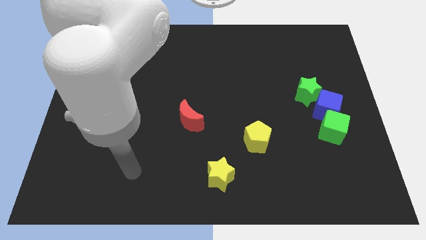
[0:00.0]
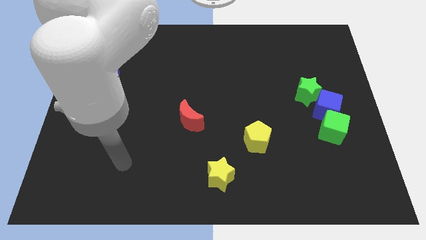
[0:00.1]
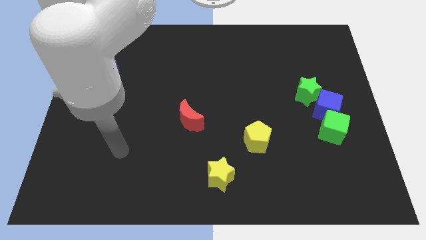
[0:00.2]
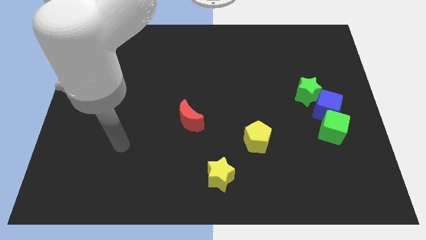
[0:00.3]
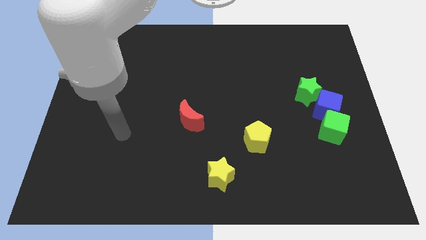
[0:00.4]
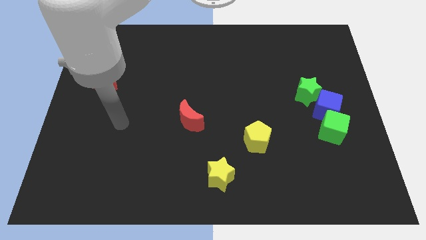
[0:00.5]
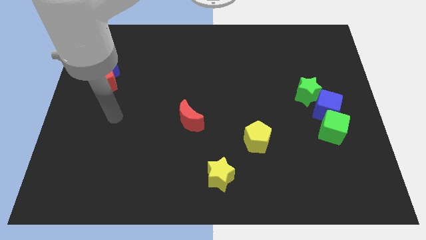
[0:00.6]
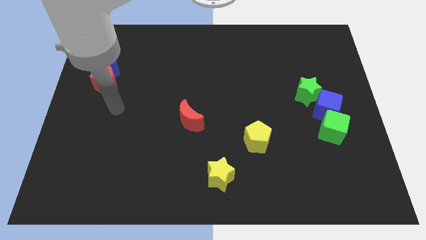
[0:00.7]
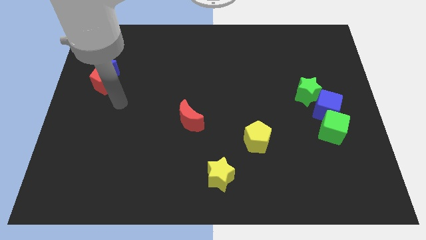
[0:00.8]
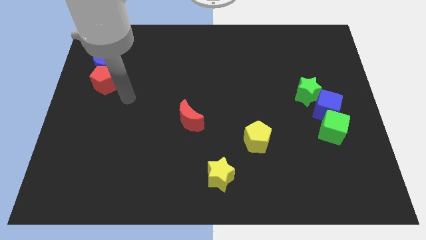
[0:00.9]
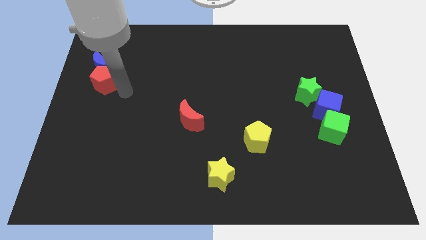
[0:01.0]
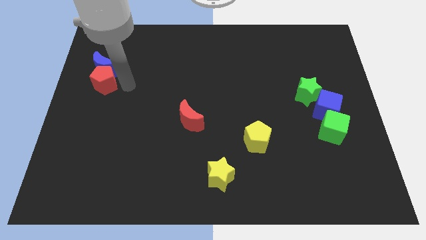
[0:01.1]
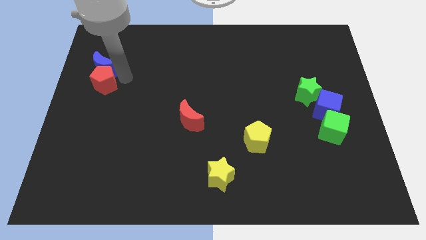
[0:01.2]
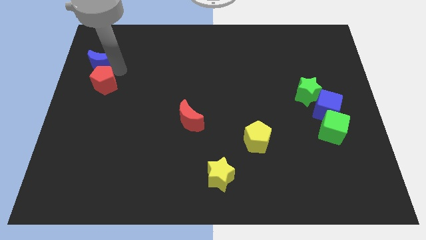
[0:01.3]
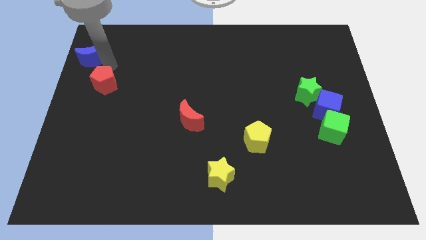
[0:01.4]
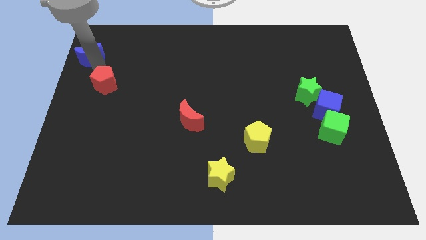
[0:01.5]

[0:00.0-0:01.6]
separate the red pentagon from the blue moon

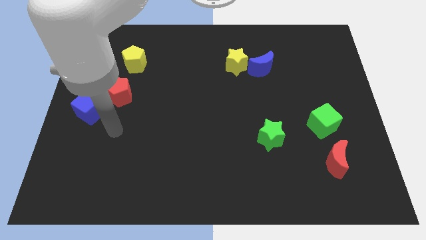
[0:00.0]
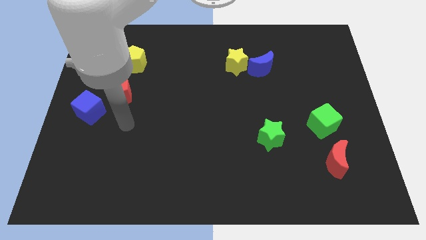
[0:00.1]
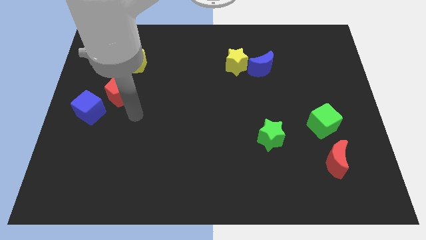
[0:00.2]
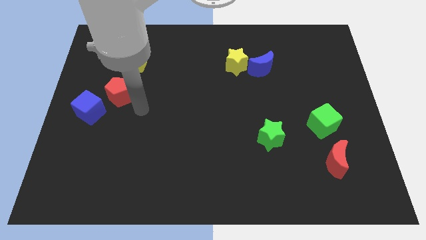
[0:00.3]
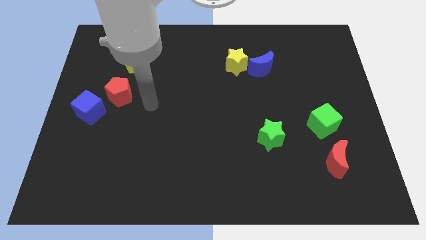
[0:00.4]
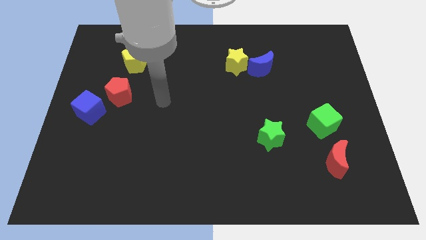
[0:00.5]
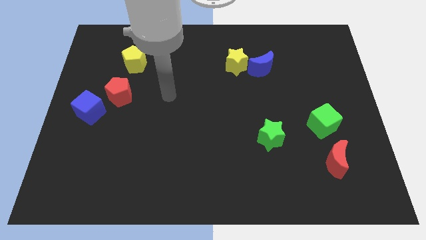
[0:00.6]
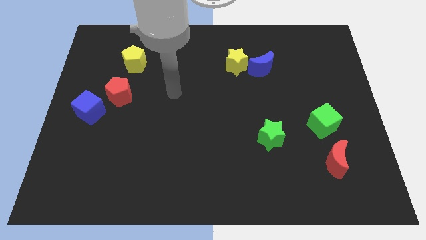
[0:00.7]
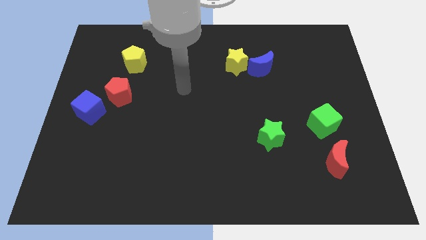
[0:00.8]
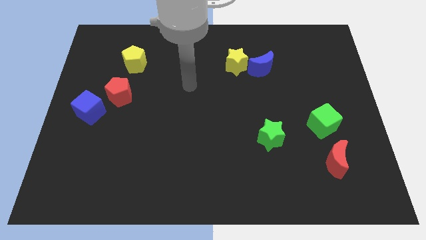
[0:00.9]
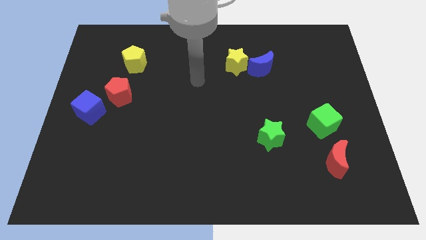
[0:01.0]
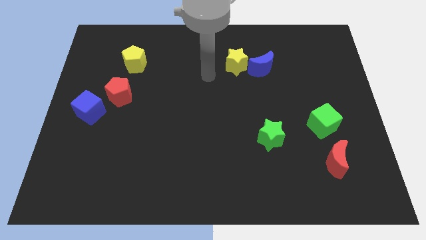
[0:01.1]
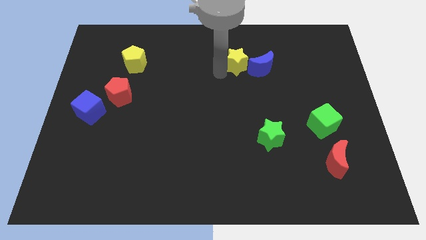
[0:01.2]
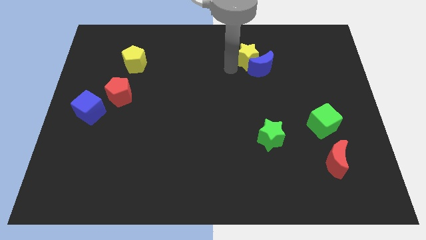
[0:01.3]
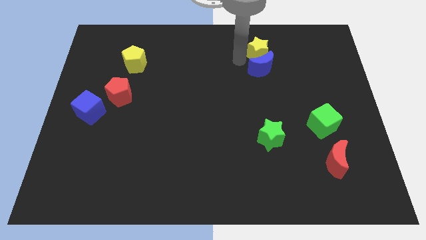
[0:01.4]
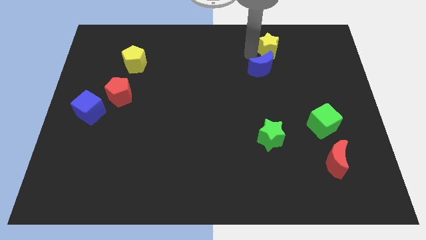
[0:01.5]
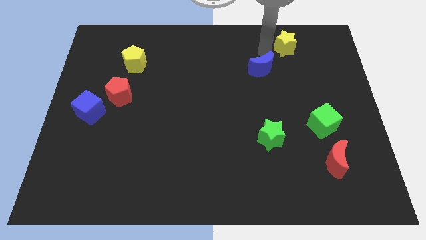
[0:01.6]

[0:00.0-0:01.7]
separate the blue moon from the yellow star

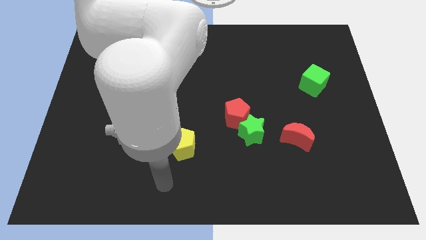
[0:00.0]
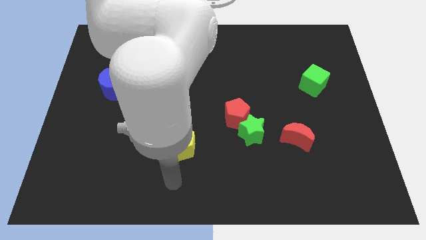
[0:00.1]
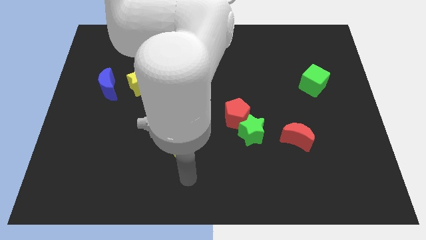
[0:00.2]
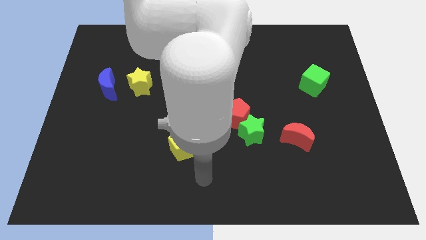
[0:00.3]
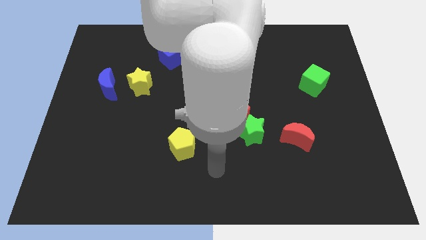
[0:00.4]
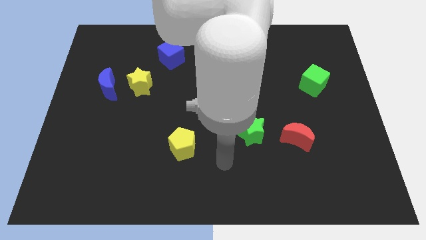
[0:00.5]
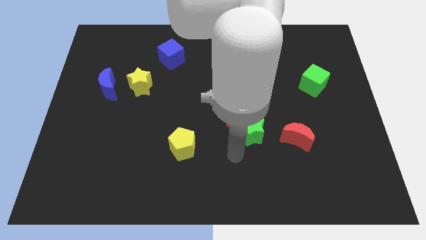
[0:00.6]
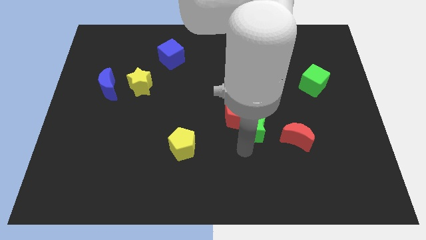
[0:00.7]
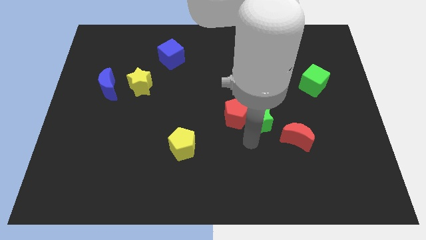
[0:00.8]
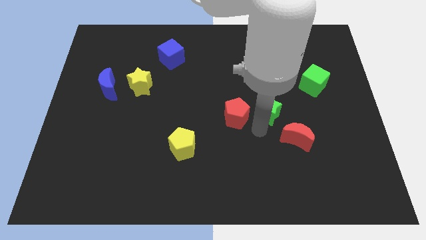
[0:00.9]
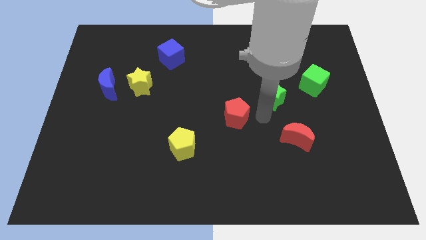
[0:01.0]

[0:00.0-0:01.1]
separate the red pentagon from the green star

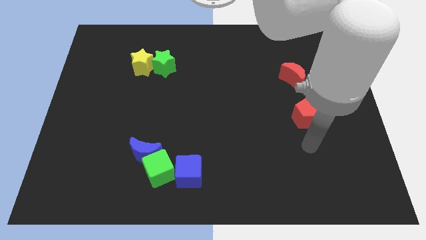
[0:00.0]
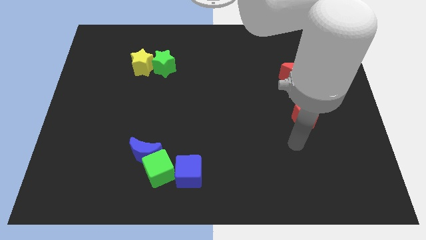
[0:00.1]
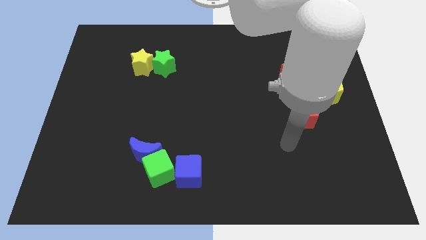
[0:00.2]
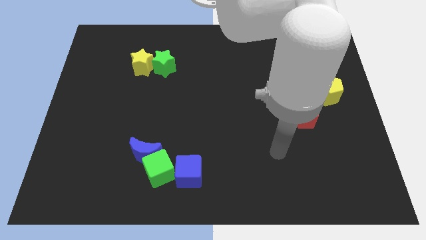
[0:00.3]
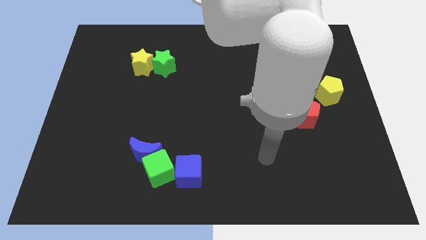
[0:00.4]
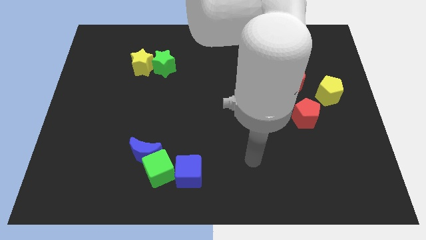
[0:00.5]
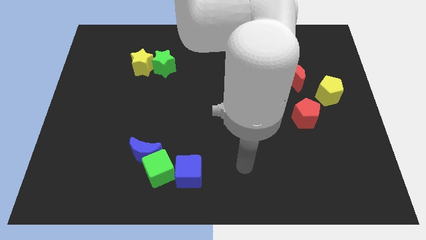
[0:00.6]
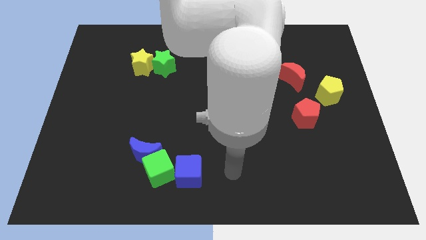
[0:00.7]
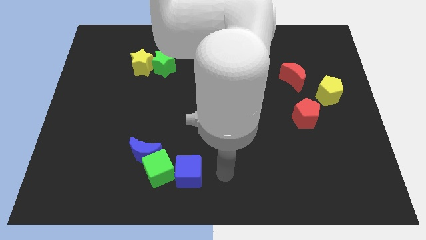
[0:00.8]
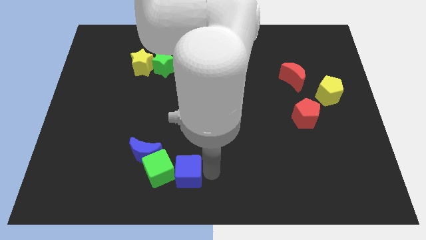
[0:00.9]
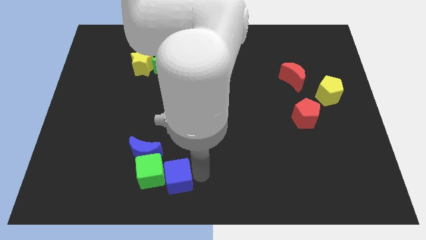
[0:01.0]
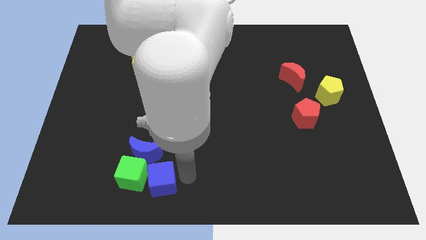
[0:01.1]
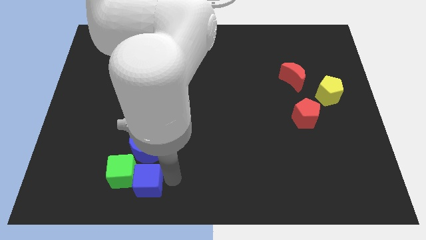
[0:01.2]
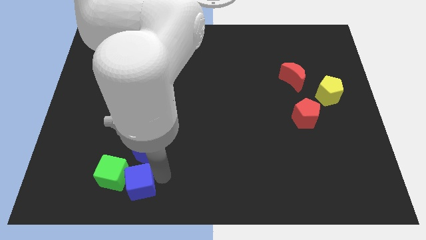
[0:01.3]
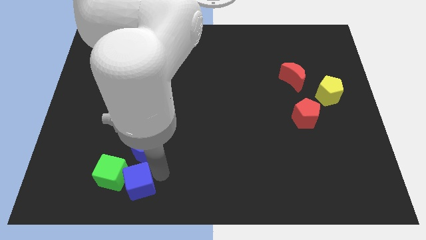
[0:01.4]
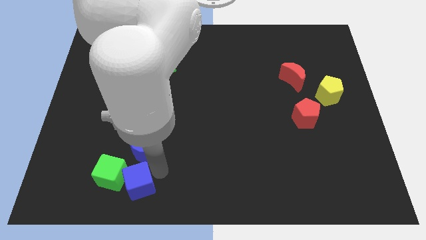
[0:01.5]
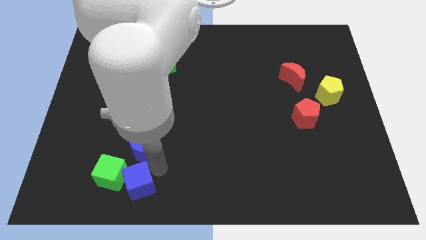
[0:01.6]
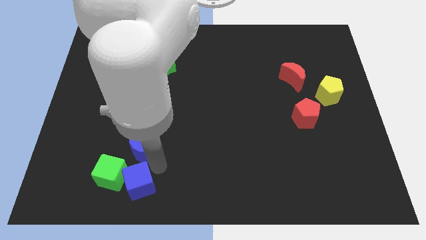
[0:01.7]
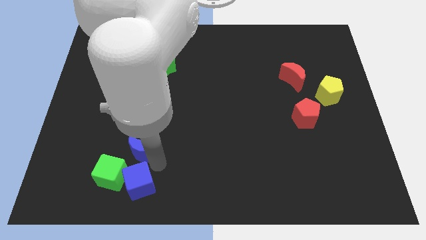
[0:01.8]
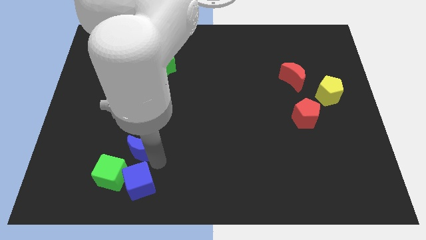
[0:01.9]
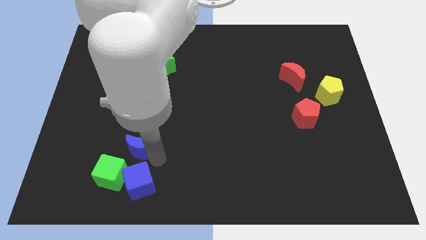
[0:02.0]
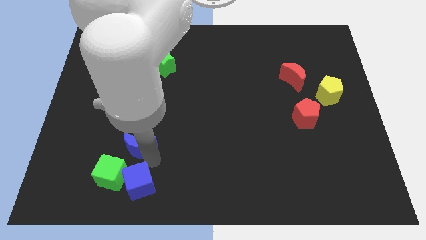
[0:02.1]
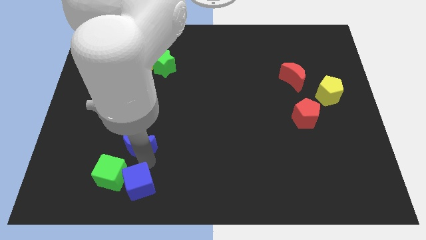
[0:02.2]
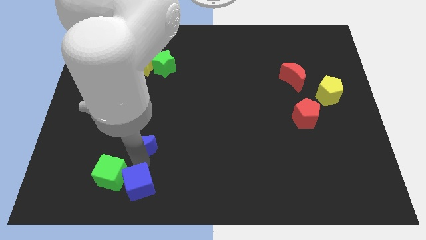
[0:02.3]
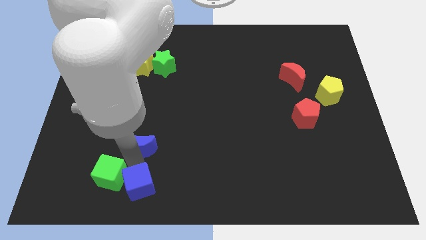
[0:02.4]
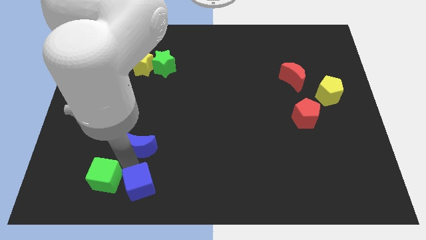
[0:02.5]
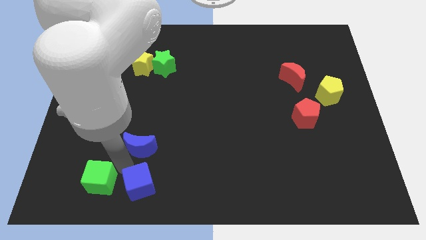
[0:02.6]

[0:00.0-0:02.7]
move the blue moon away from the green cube

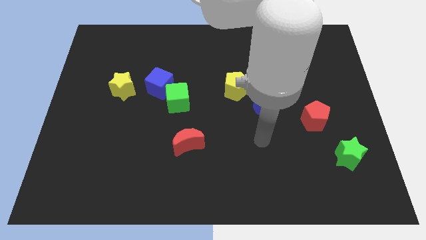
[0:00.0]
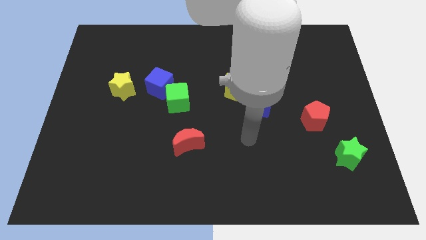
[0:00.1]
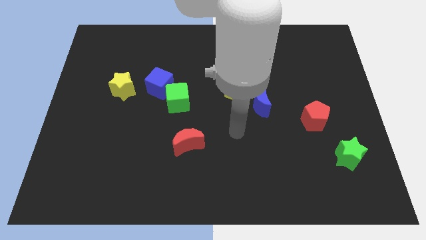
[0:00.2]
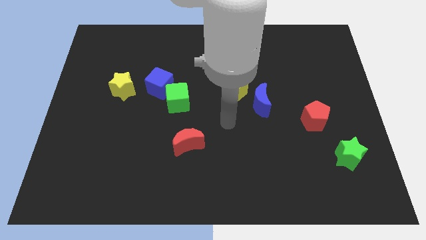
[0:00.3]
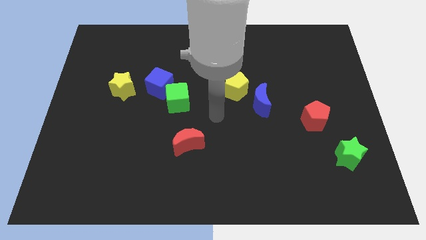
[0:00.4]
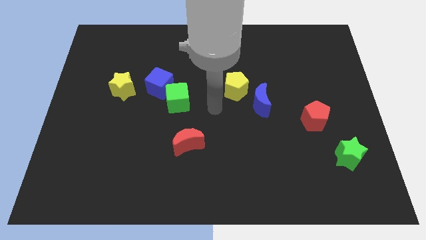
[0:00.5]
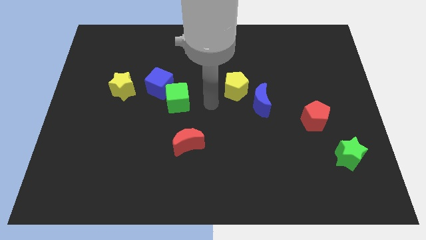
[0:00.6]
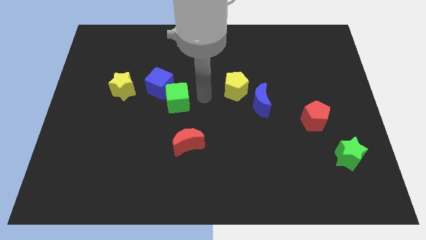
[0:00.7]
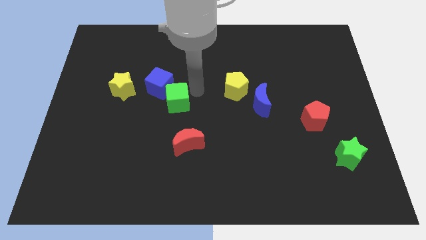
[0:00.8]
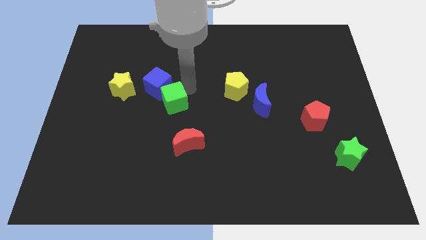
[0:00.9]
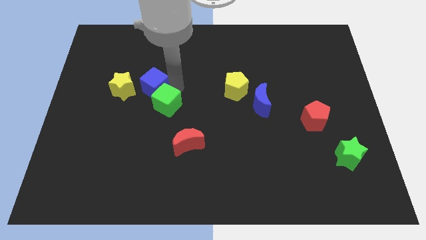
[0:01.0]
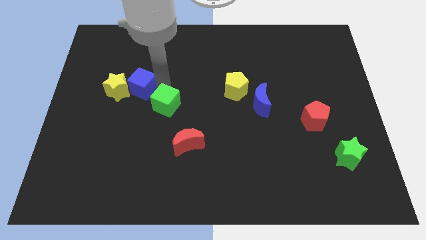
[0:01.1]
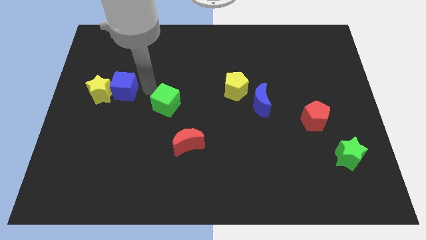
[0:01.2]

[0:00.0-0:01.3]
move the green cube away from the blue cube

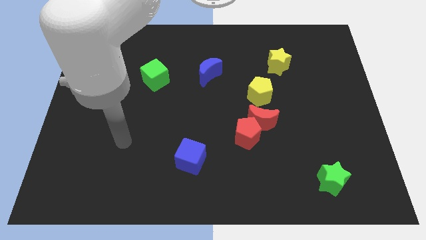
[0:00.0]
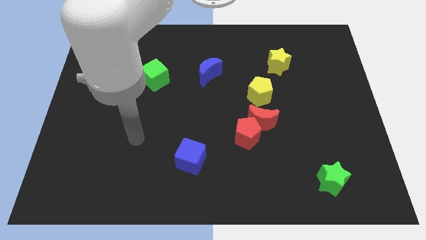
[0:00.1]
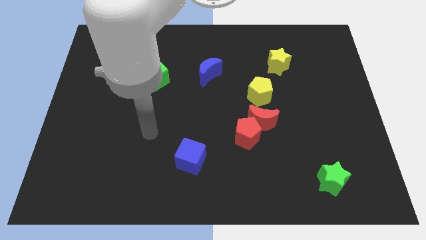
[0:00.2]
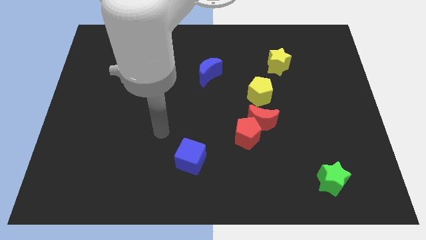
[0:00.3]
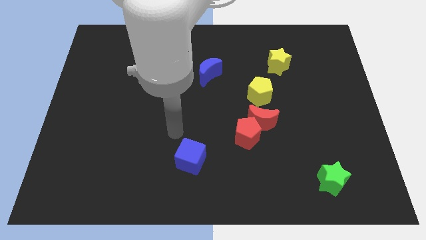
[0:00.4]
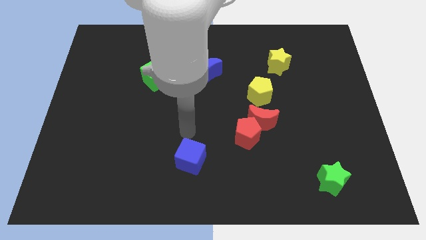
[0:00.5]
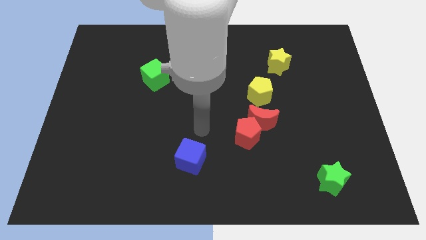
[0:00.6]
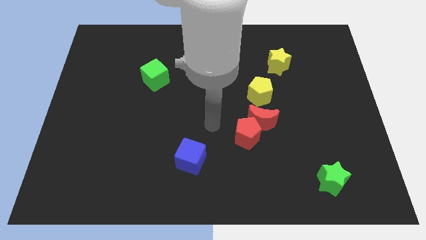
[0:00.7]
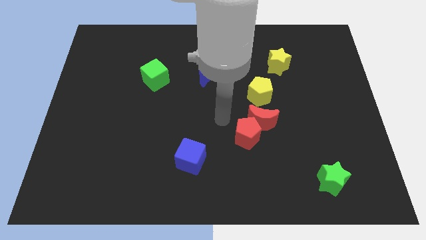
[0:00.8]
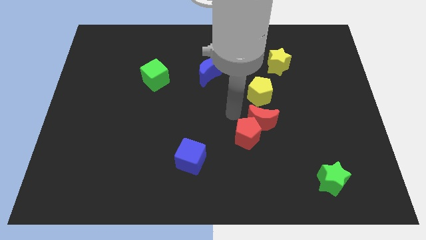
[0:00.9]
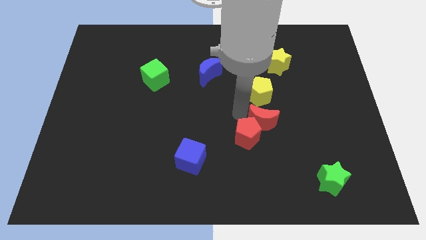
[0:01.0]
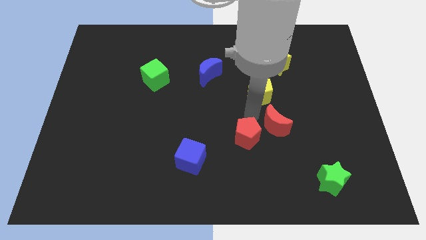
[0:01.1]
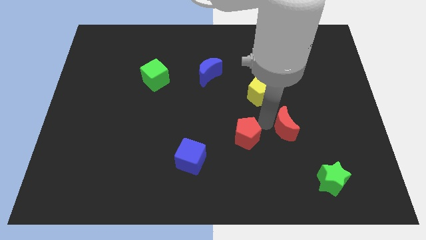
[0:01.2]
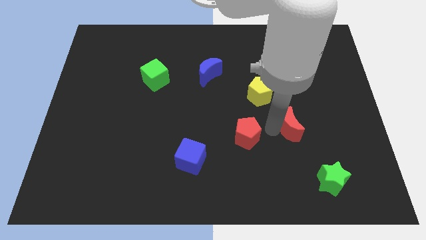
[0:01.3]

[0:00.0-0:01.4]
pull the red pentagon apart from the red moon
